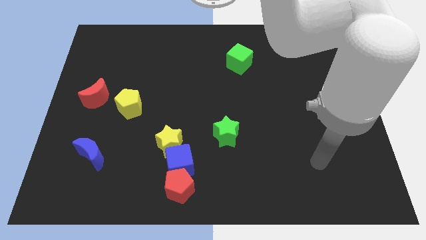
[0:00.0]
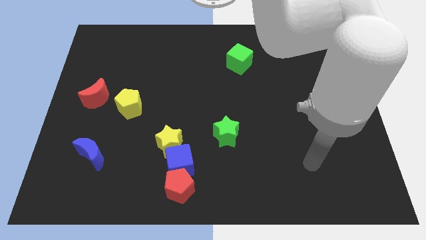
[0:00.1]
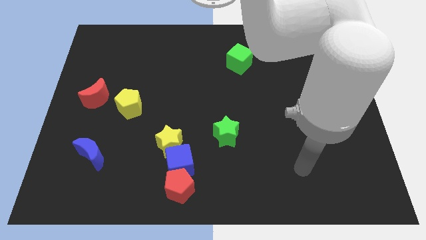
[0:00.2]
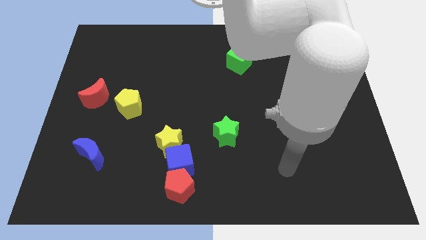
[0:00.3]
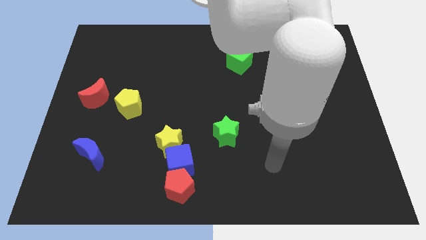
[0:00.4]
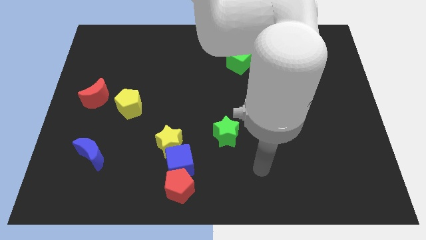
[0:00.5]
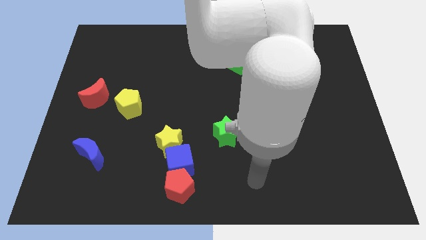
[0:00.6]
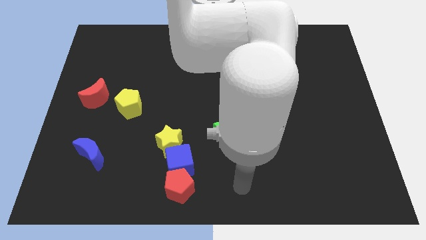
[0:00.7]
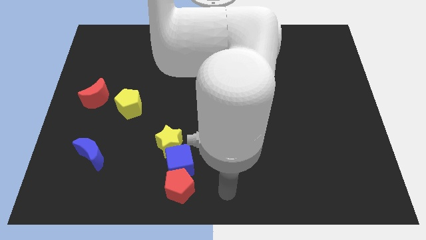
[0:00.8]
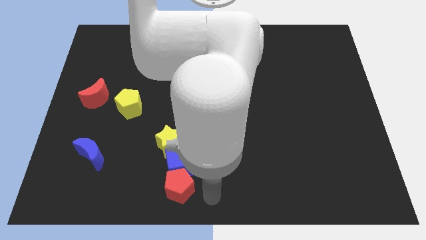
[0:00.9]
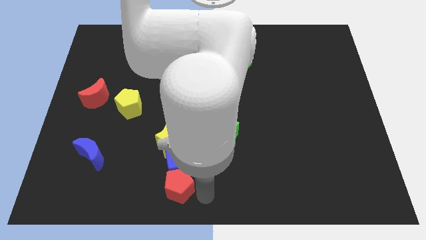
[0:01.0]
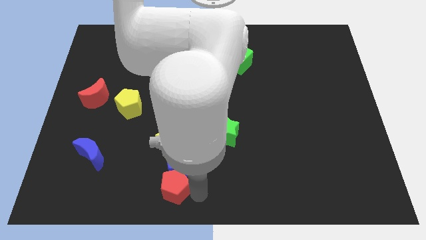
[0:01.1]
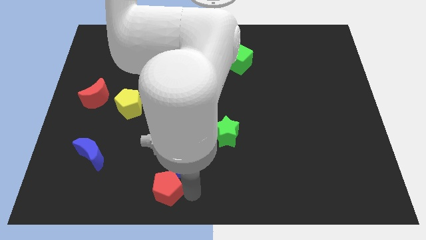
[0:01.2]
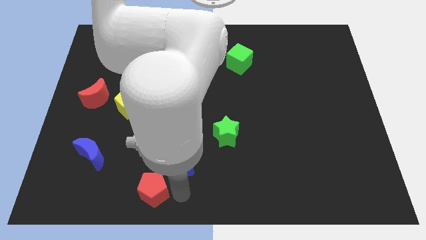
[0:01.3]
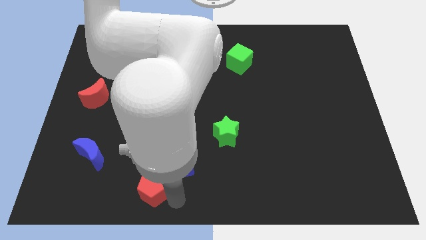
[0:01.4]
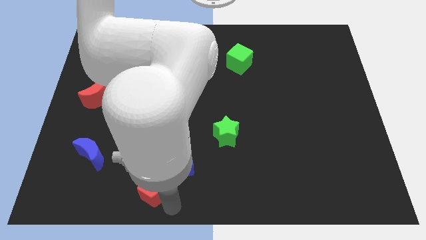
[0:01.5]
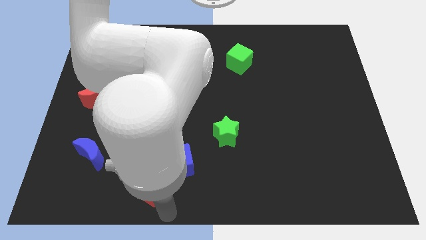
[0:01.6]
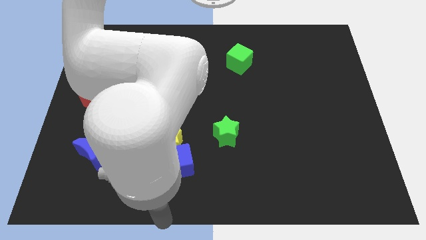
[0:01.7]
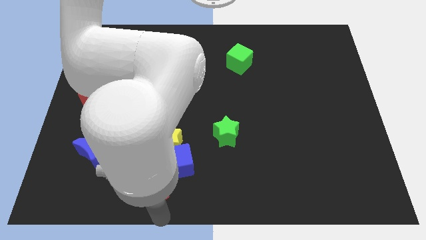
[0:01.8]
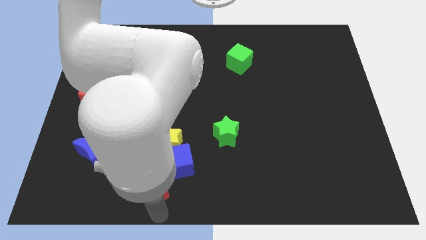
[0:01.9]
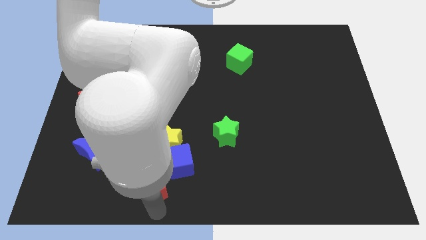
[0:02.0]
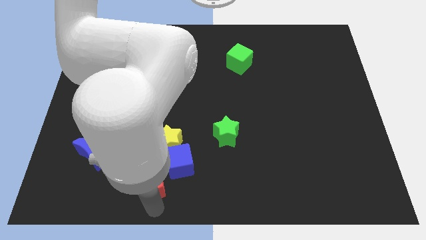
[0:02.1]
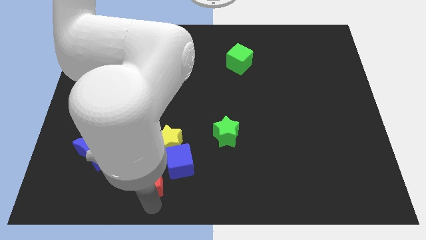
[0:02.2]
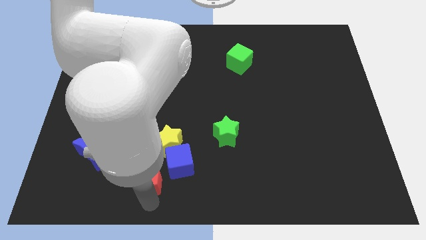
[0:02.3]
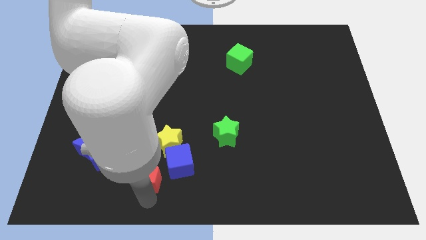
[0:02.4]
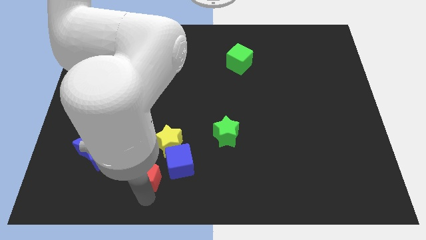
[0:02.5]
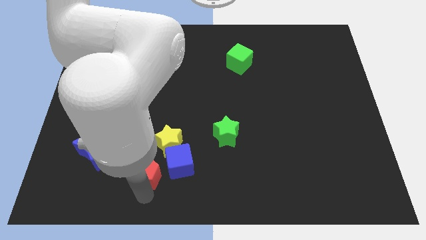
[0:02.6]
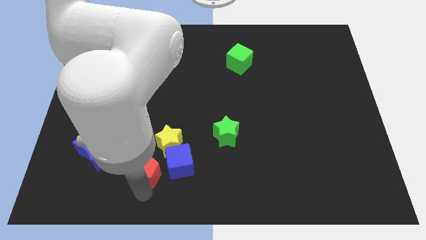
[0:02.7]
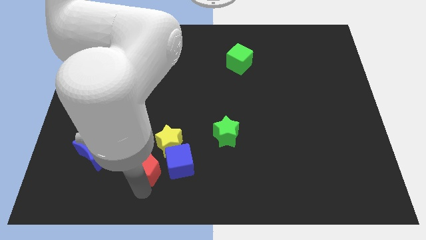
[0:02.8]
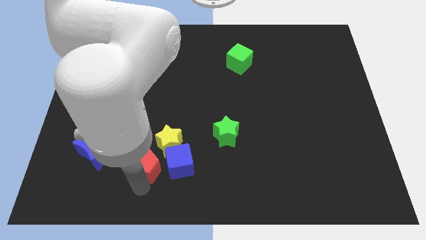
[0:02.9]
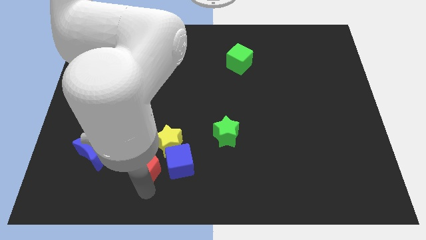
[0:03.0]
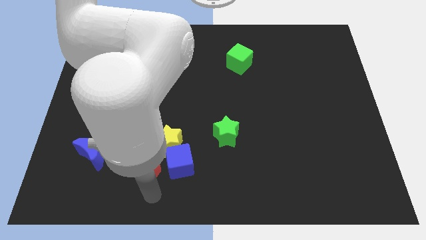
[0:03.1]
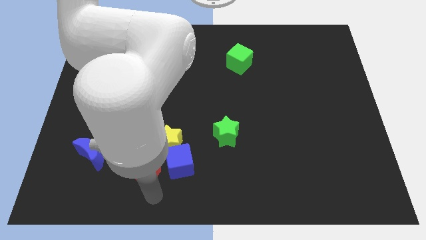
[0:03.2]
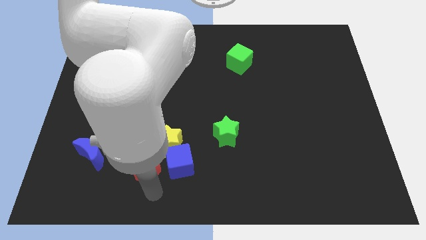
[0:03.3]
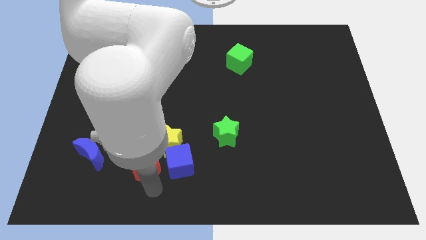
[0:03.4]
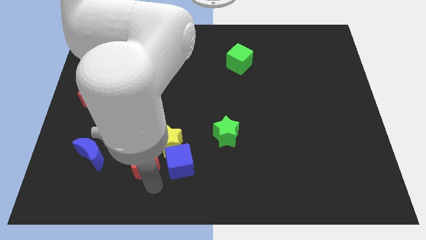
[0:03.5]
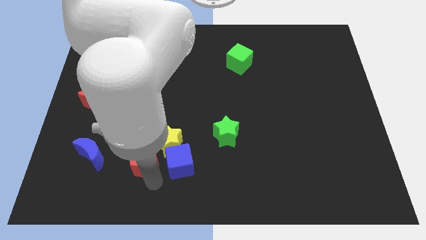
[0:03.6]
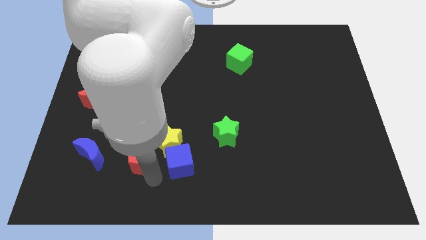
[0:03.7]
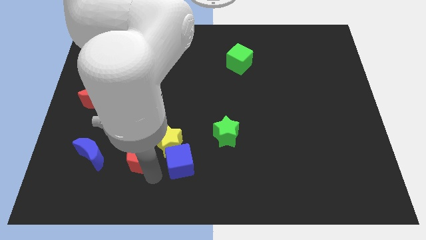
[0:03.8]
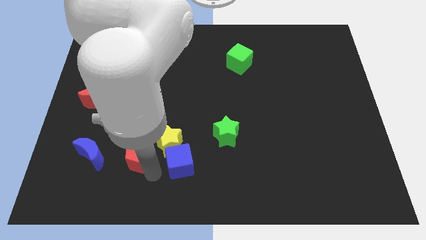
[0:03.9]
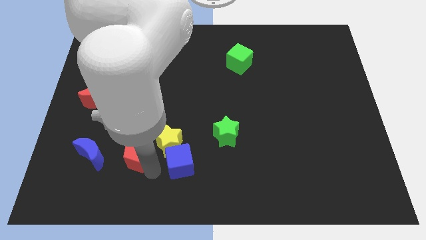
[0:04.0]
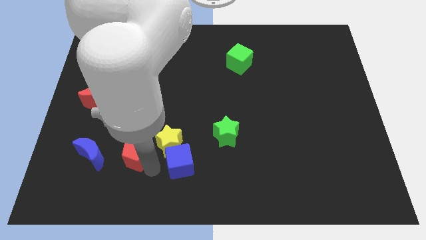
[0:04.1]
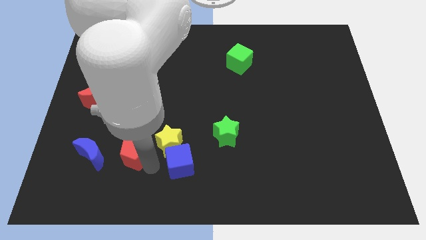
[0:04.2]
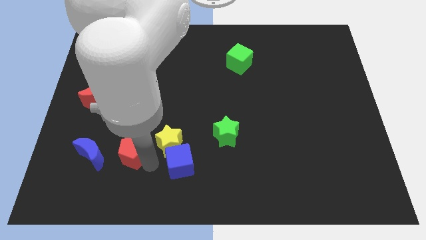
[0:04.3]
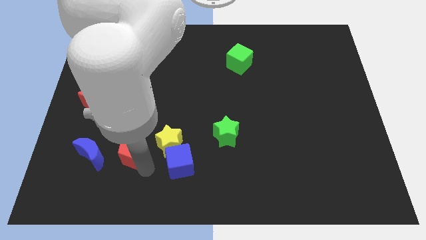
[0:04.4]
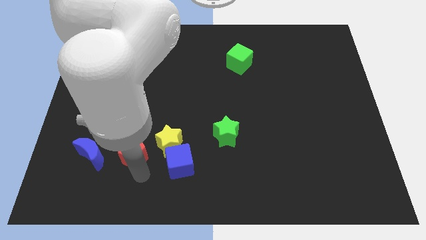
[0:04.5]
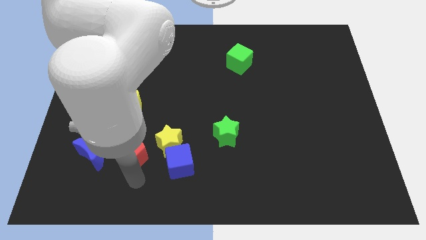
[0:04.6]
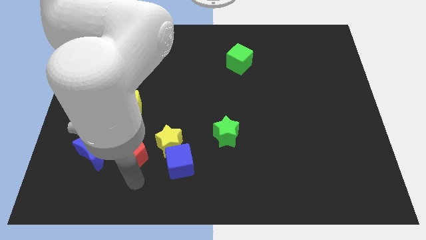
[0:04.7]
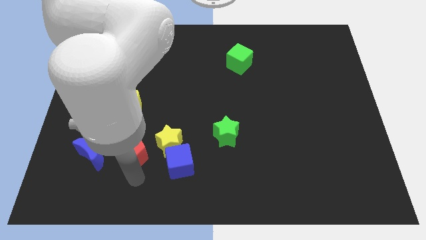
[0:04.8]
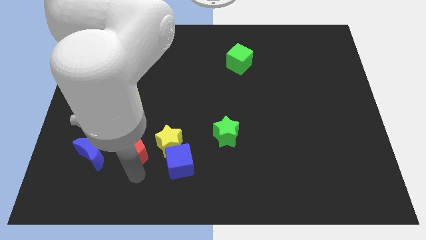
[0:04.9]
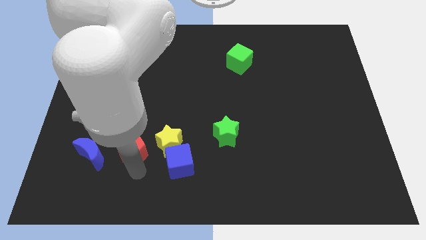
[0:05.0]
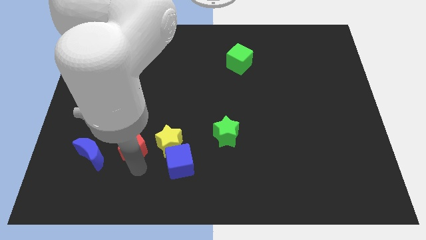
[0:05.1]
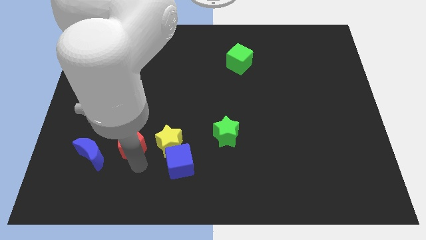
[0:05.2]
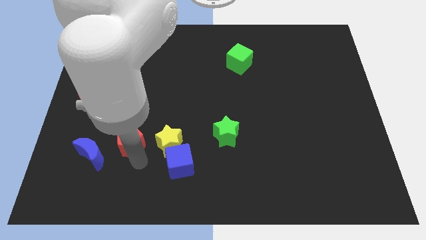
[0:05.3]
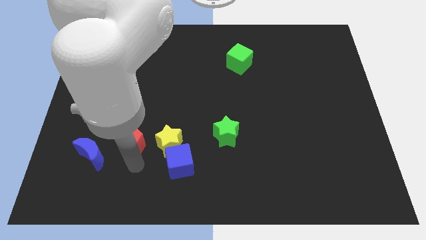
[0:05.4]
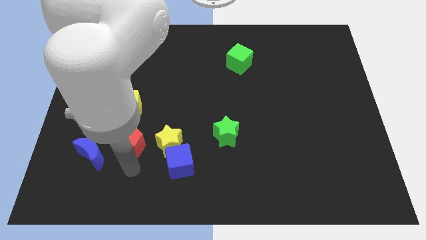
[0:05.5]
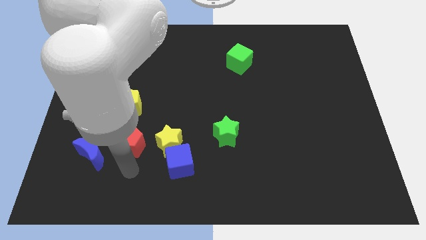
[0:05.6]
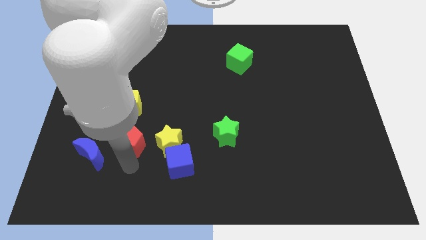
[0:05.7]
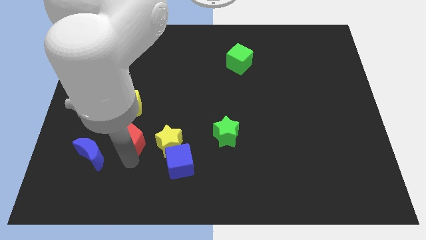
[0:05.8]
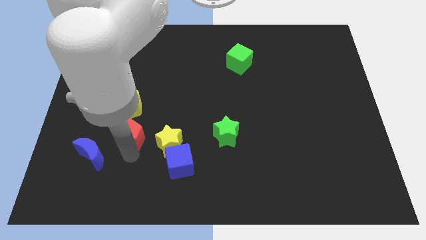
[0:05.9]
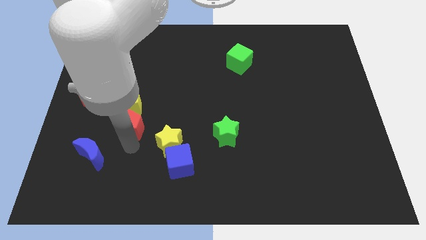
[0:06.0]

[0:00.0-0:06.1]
move the red pentagon to the yellow pentagon

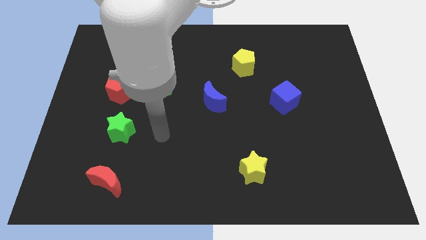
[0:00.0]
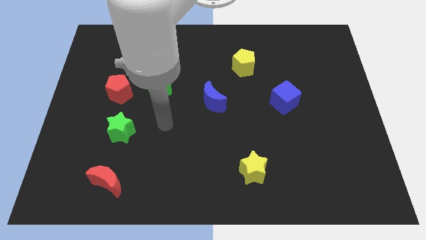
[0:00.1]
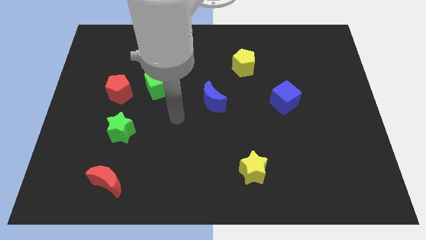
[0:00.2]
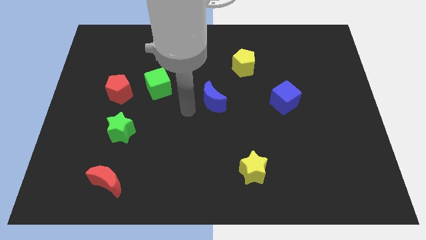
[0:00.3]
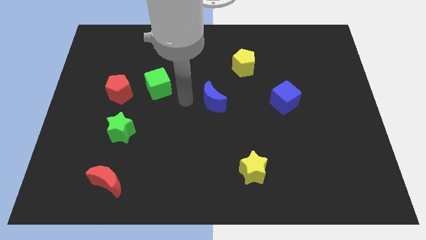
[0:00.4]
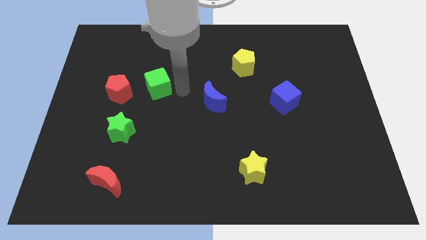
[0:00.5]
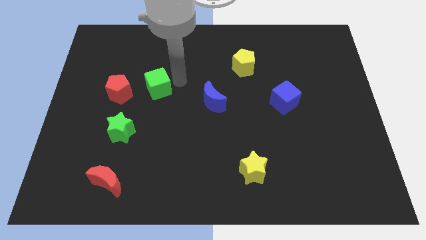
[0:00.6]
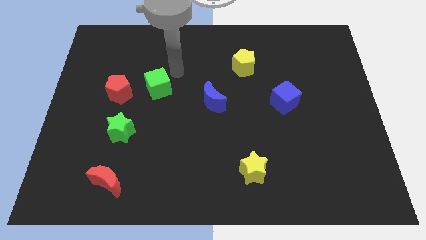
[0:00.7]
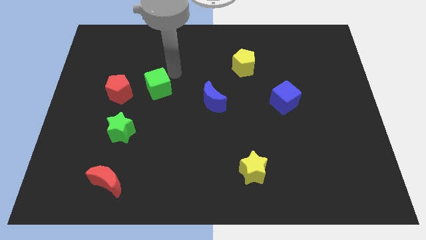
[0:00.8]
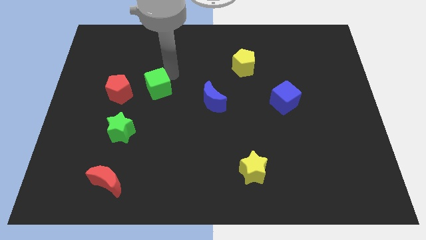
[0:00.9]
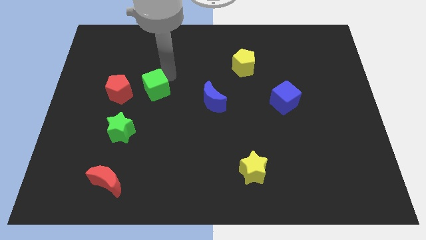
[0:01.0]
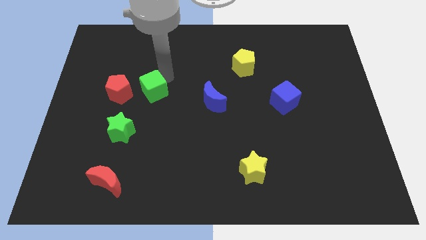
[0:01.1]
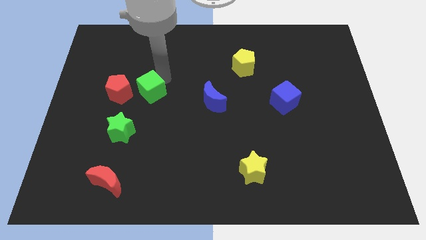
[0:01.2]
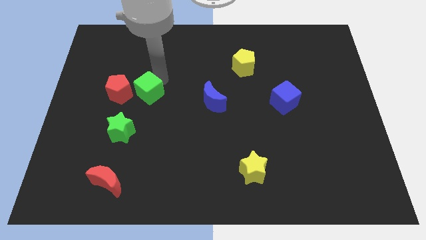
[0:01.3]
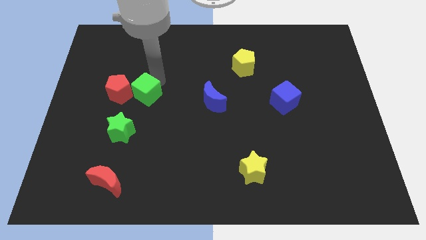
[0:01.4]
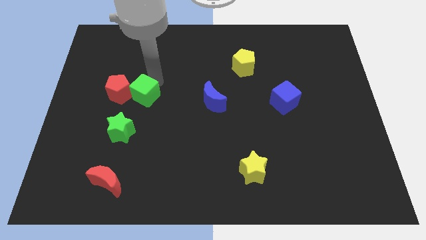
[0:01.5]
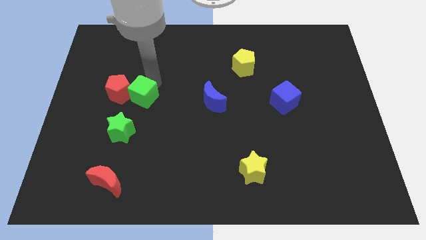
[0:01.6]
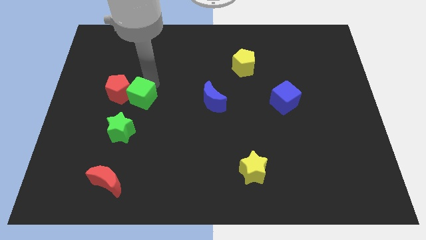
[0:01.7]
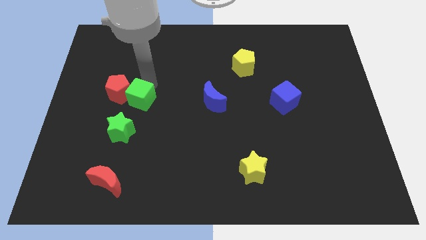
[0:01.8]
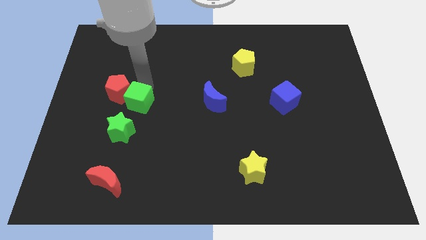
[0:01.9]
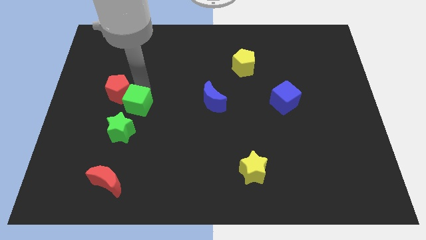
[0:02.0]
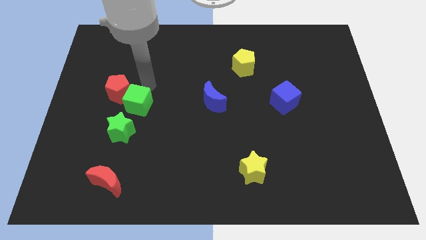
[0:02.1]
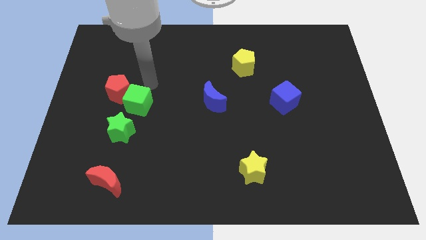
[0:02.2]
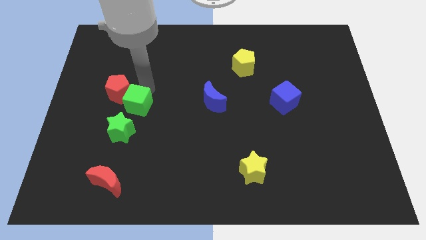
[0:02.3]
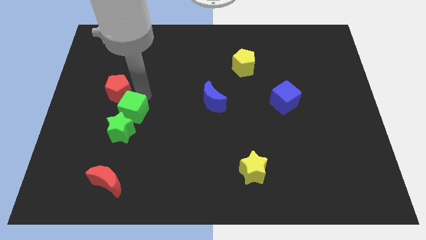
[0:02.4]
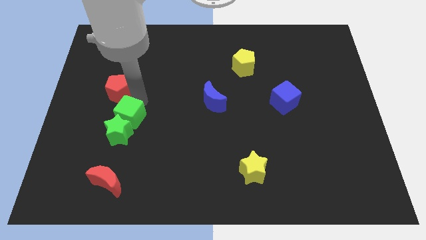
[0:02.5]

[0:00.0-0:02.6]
push the green cube towards the green star
